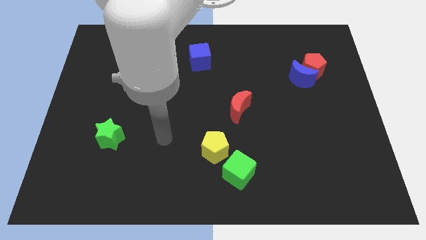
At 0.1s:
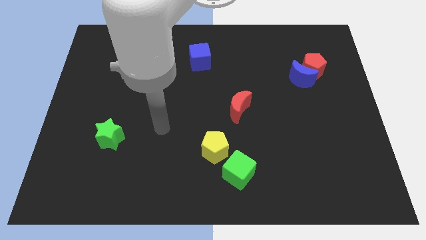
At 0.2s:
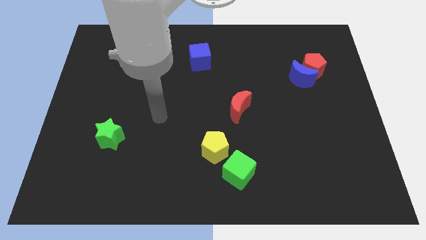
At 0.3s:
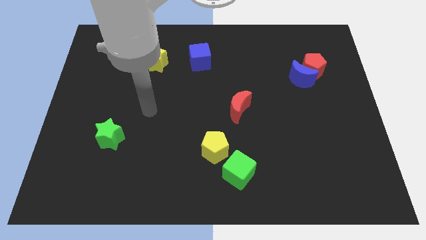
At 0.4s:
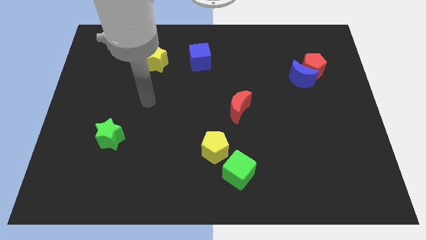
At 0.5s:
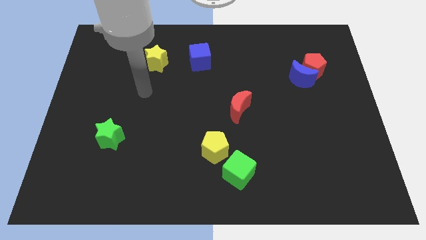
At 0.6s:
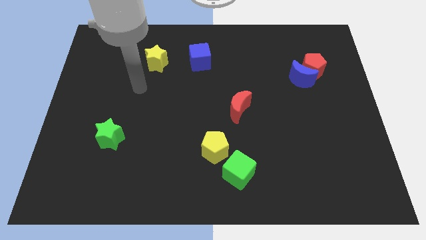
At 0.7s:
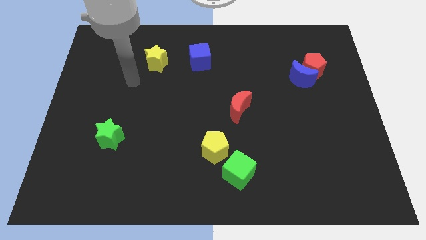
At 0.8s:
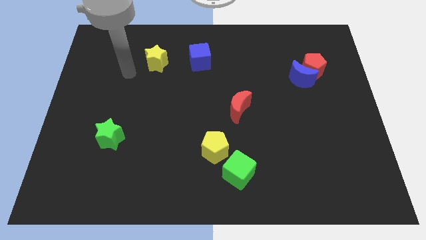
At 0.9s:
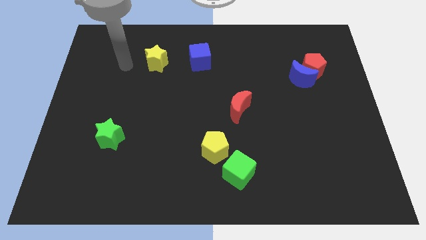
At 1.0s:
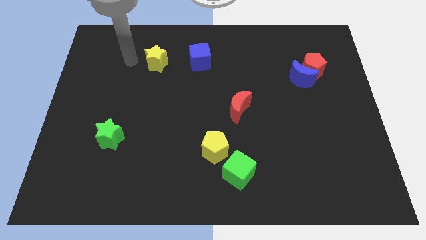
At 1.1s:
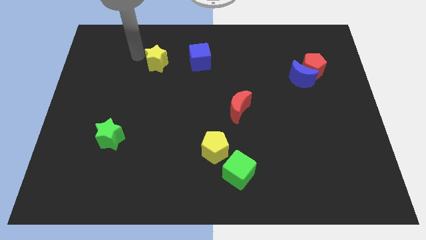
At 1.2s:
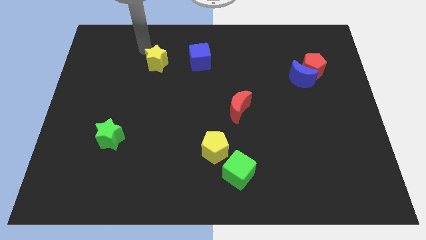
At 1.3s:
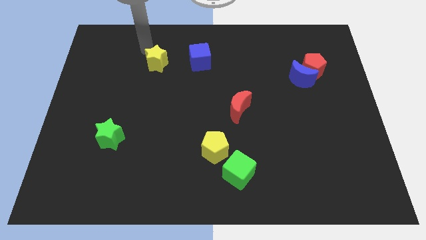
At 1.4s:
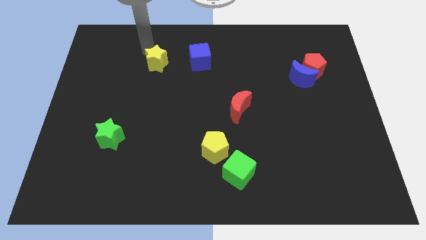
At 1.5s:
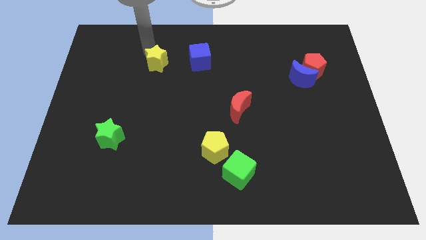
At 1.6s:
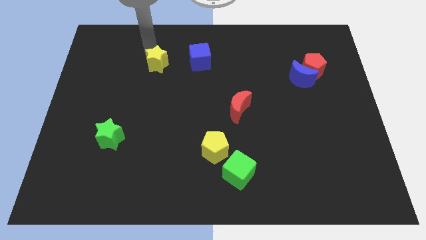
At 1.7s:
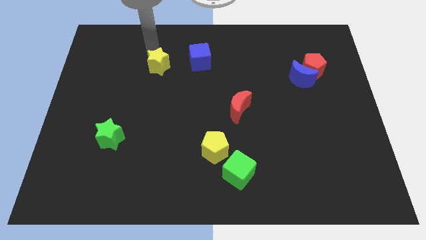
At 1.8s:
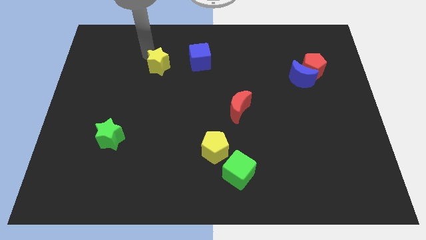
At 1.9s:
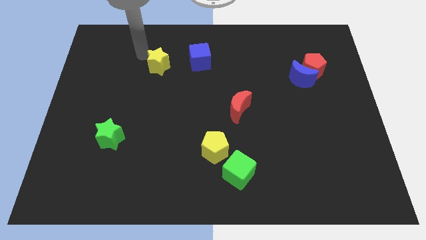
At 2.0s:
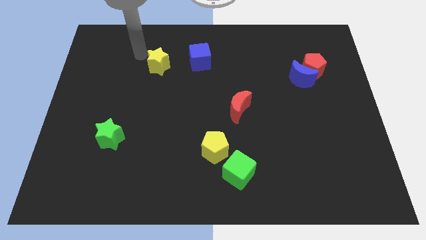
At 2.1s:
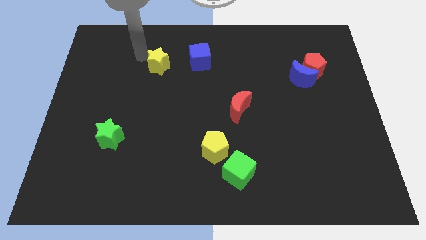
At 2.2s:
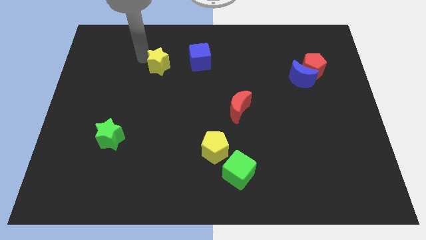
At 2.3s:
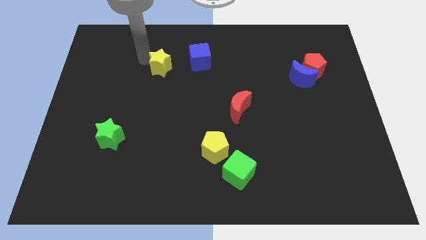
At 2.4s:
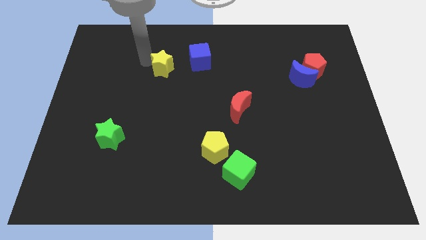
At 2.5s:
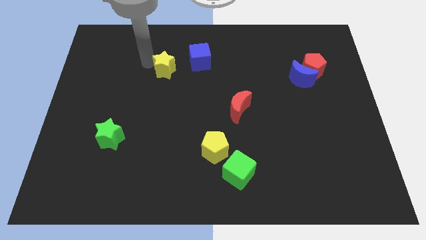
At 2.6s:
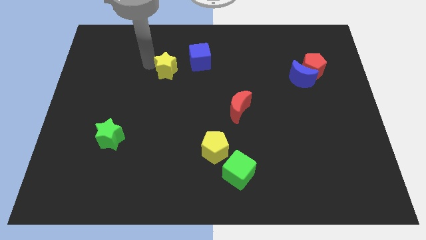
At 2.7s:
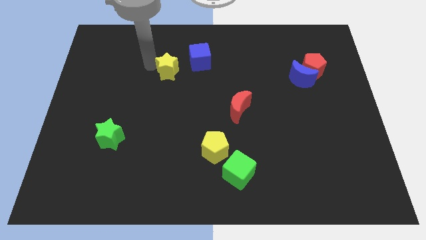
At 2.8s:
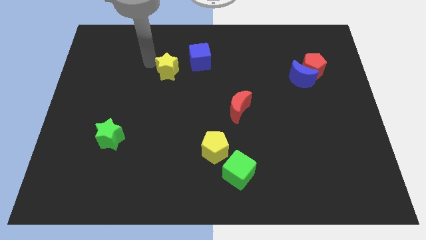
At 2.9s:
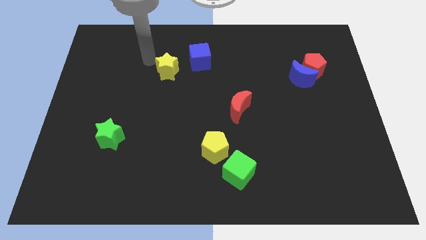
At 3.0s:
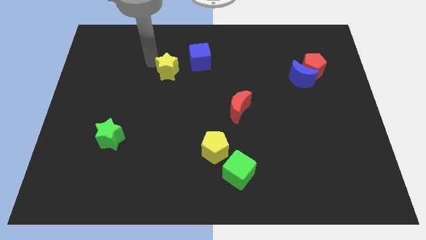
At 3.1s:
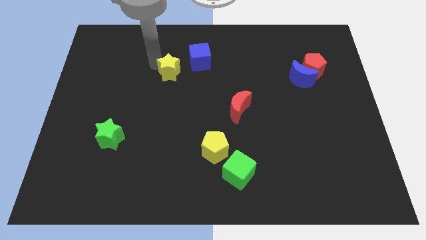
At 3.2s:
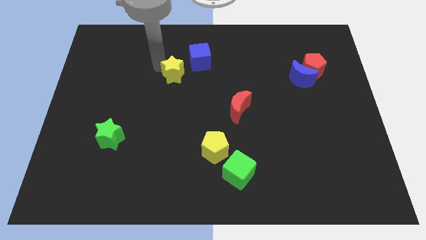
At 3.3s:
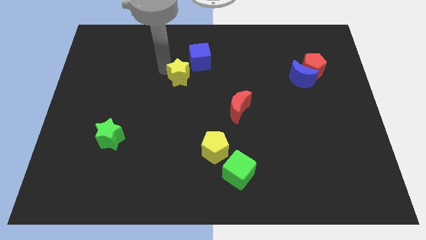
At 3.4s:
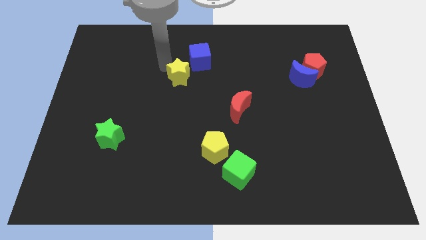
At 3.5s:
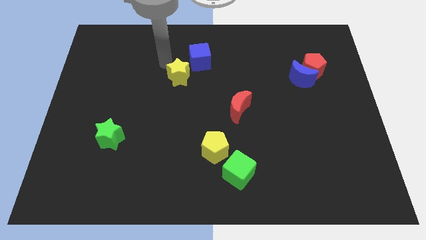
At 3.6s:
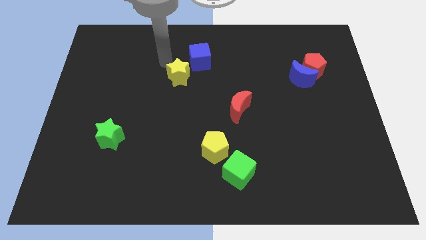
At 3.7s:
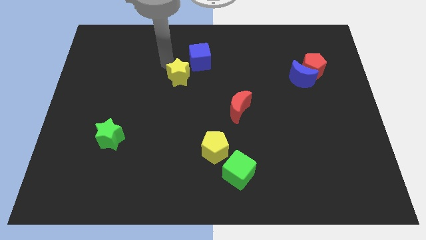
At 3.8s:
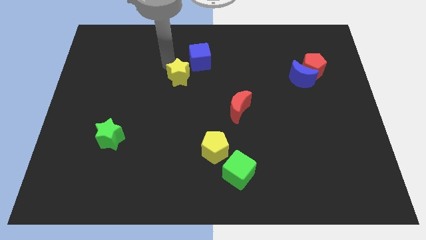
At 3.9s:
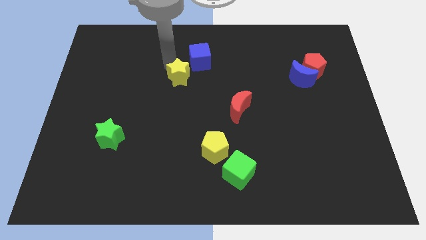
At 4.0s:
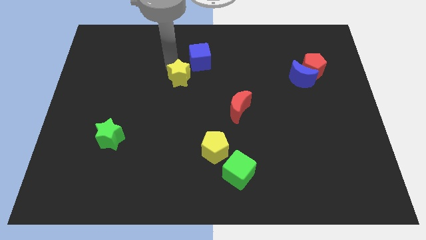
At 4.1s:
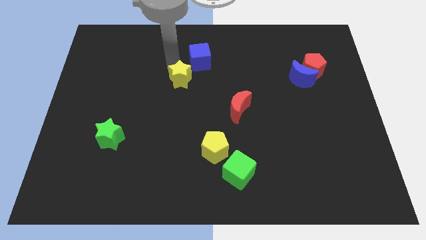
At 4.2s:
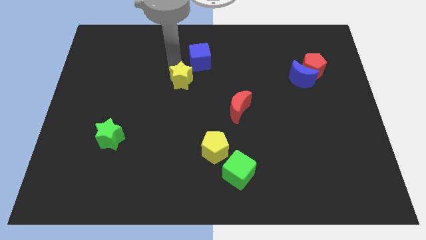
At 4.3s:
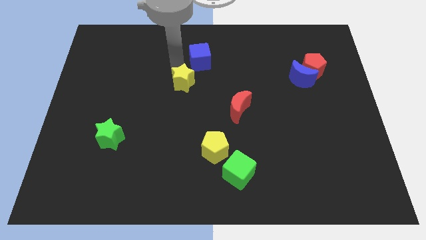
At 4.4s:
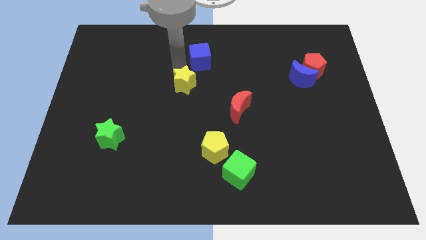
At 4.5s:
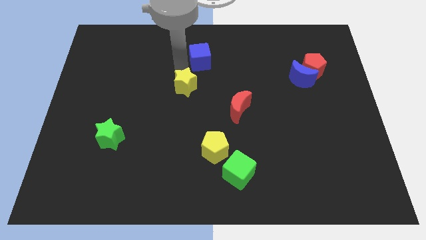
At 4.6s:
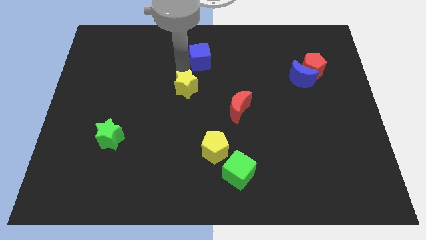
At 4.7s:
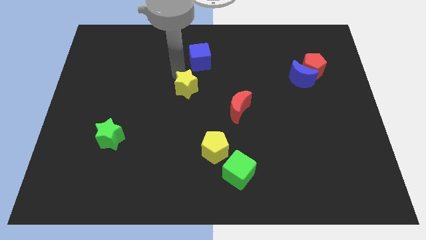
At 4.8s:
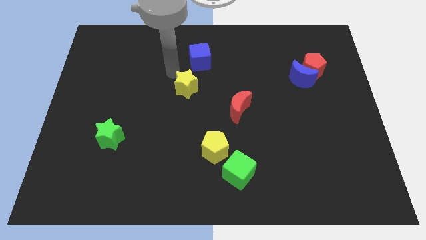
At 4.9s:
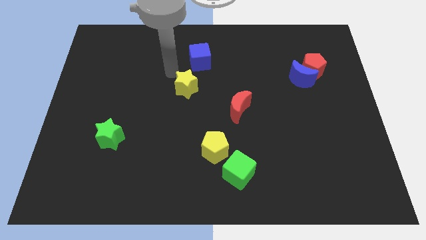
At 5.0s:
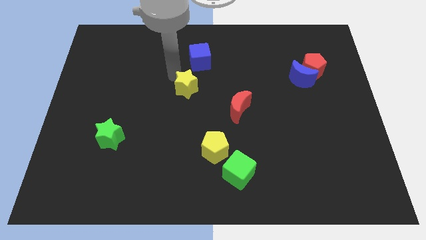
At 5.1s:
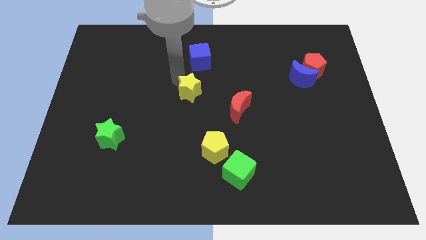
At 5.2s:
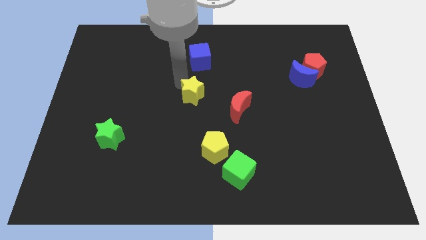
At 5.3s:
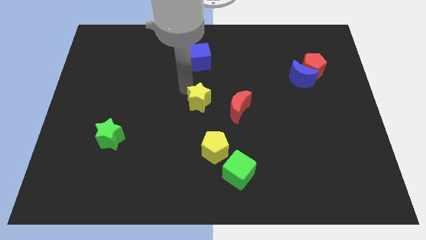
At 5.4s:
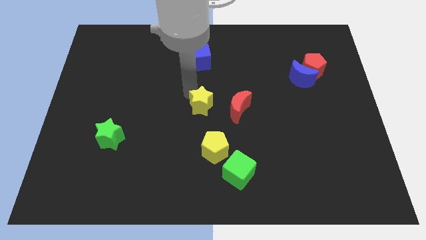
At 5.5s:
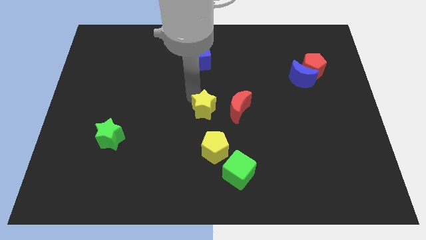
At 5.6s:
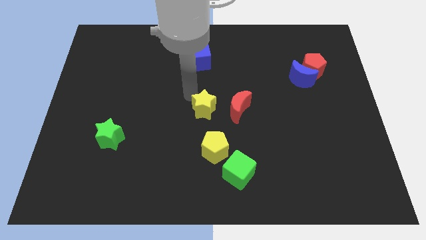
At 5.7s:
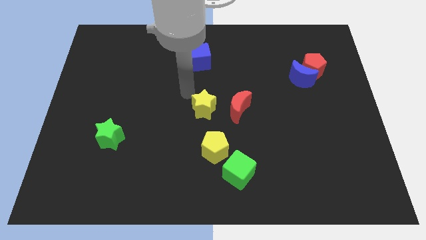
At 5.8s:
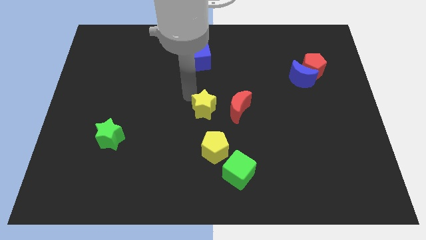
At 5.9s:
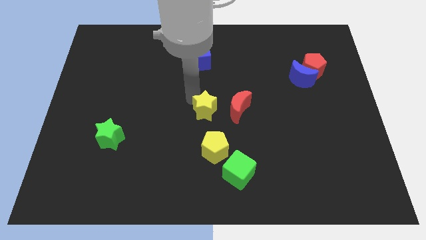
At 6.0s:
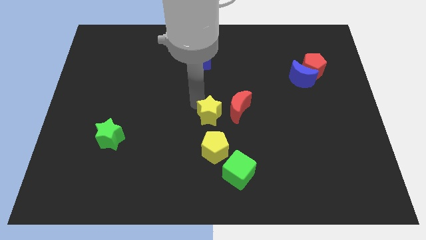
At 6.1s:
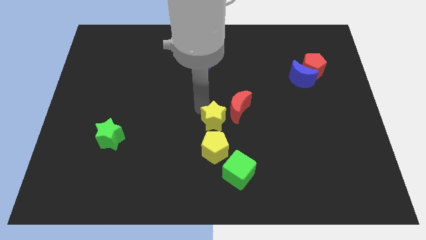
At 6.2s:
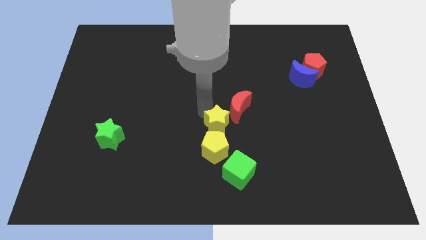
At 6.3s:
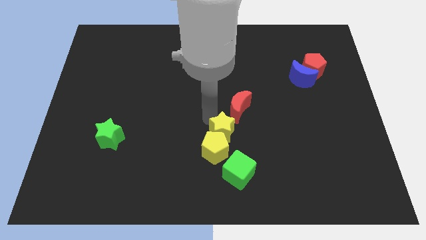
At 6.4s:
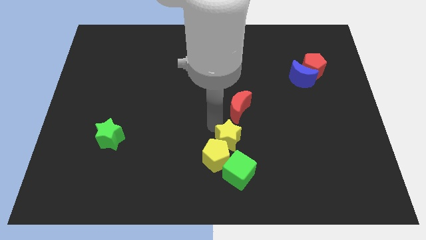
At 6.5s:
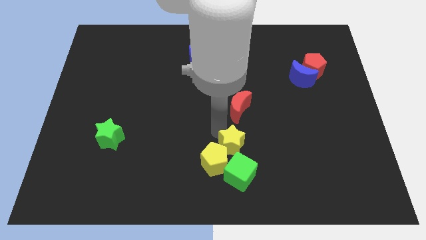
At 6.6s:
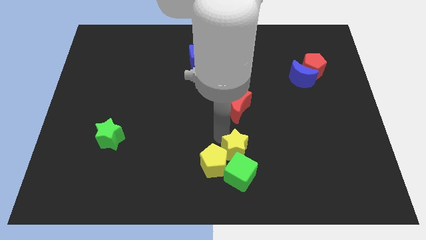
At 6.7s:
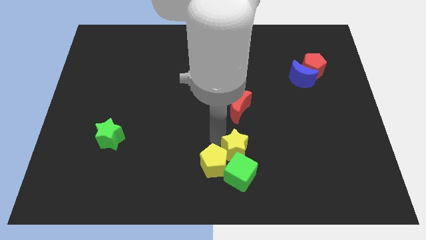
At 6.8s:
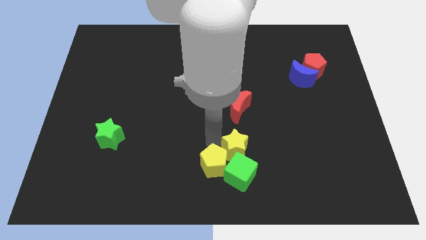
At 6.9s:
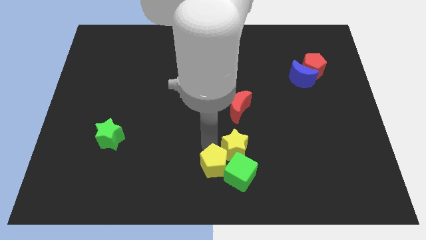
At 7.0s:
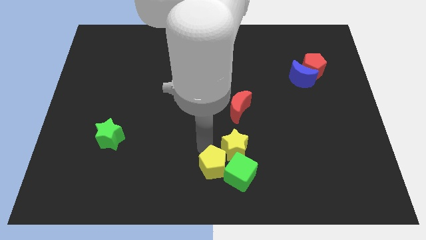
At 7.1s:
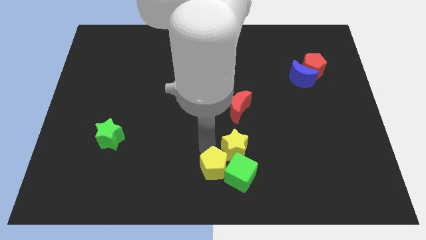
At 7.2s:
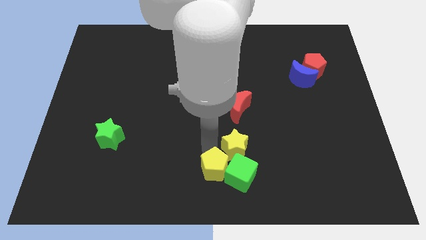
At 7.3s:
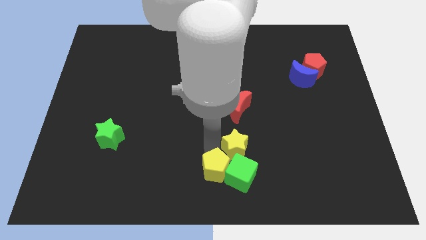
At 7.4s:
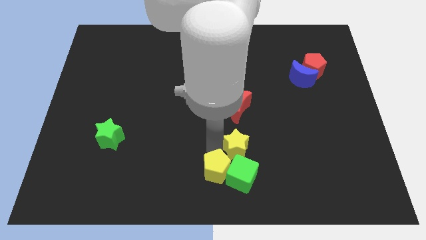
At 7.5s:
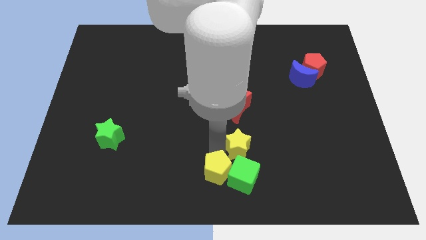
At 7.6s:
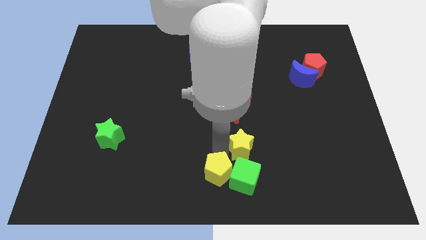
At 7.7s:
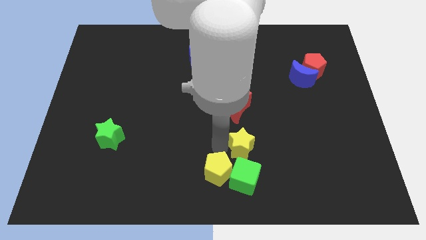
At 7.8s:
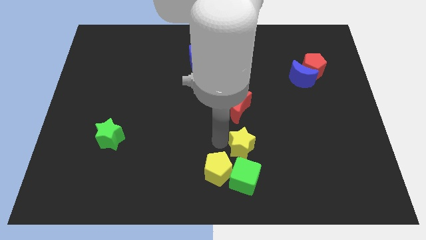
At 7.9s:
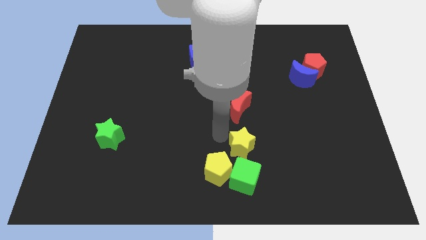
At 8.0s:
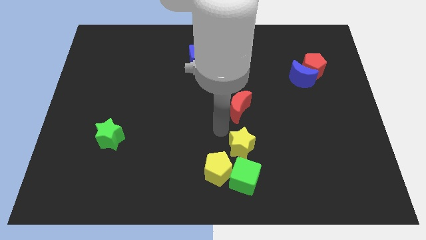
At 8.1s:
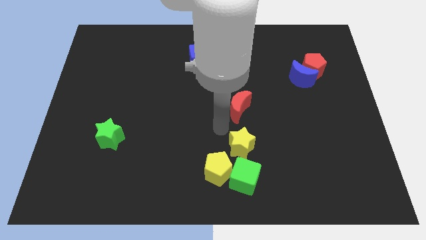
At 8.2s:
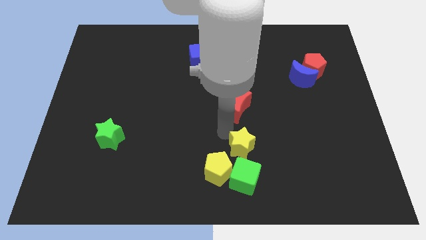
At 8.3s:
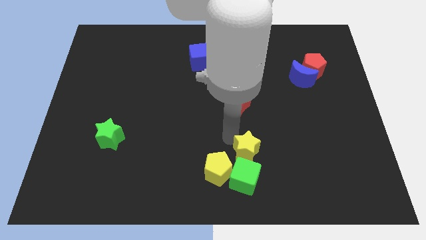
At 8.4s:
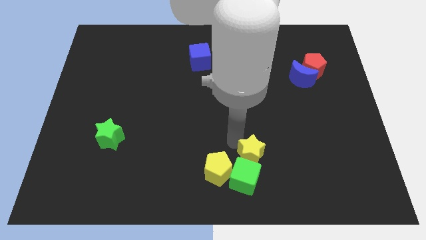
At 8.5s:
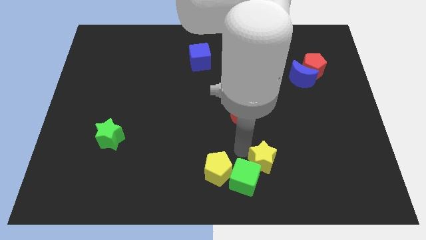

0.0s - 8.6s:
slide the yellow star just right of the green cube
